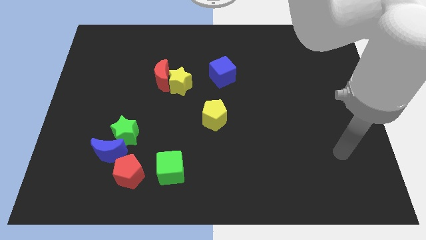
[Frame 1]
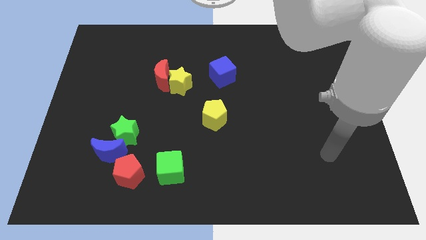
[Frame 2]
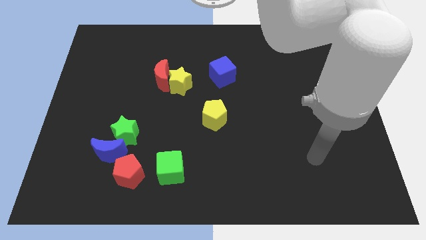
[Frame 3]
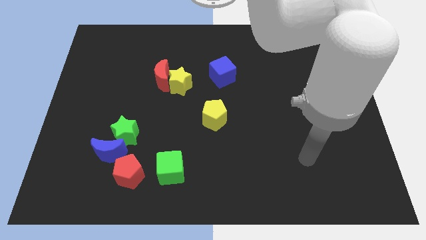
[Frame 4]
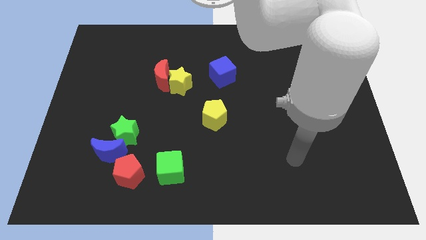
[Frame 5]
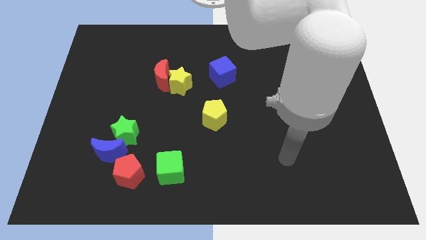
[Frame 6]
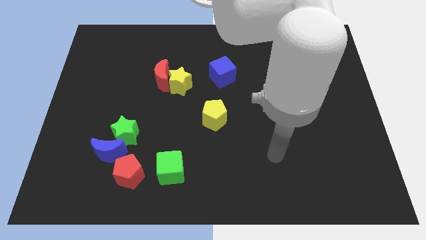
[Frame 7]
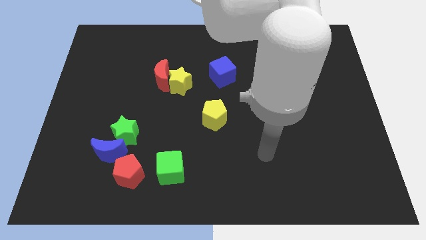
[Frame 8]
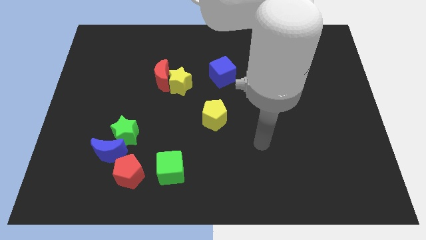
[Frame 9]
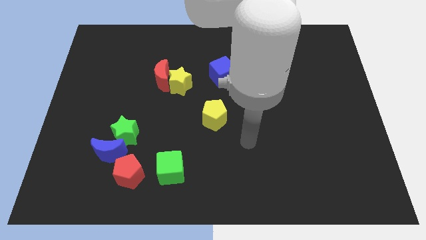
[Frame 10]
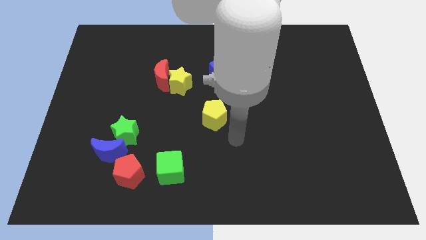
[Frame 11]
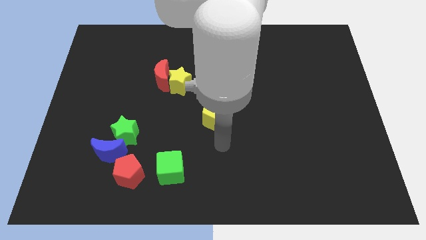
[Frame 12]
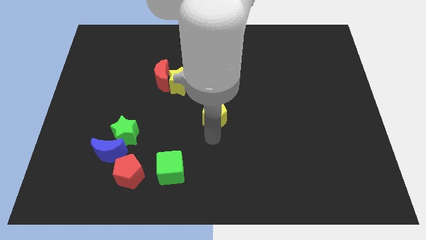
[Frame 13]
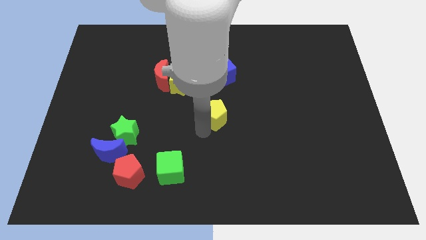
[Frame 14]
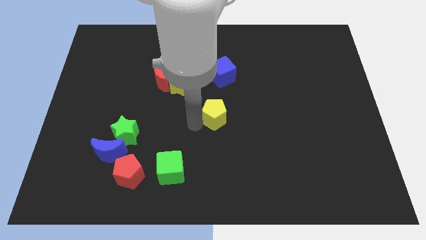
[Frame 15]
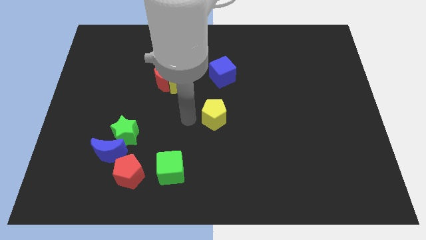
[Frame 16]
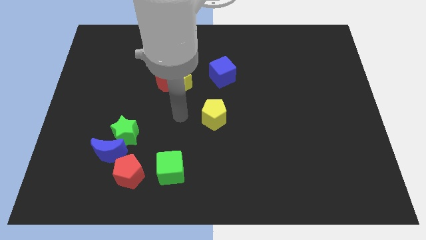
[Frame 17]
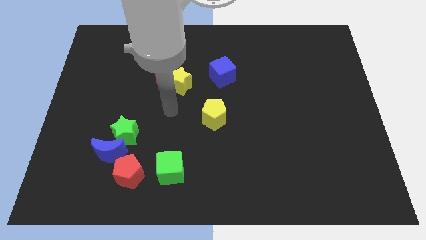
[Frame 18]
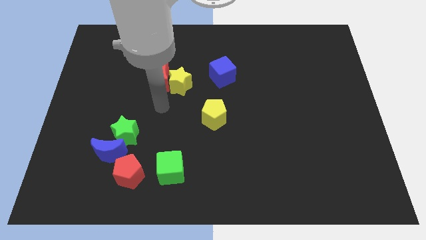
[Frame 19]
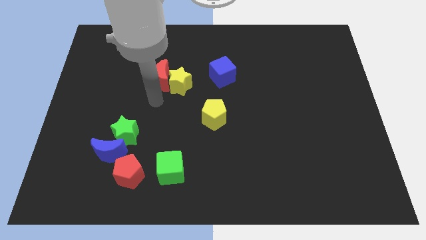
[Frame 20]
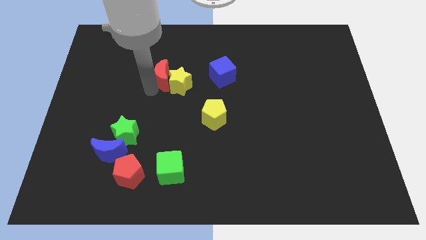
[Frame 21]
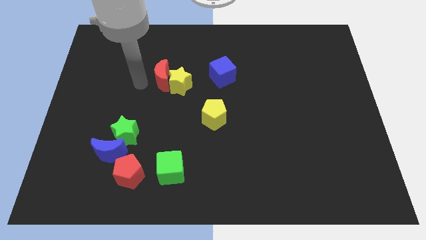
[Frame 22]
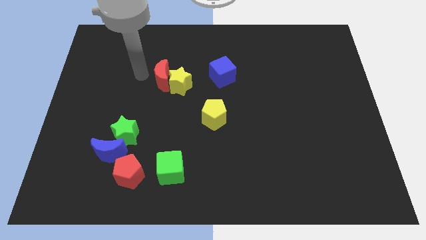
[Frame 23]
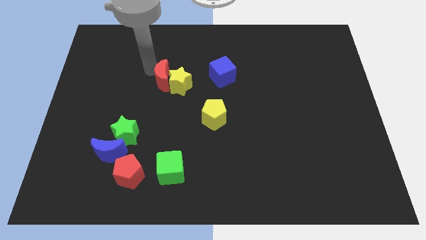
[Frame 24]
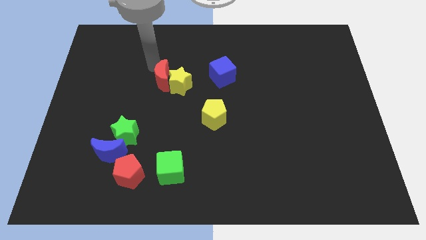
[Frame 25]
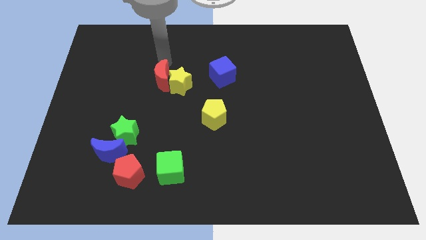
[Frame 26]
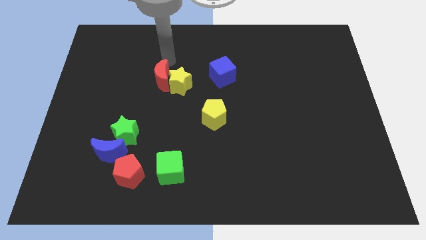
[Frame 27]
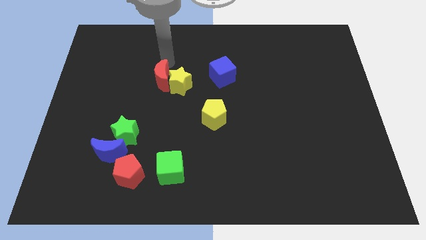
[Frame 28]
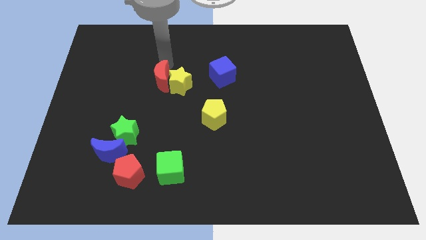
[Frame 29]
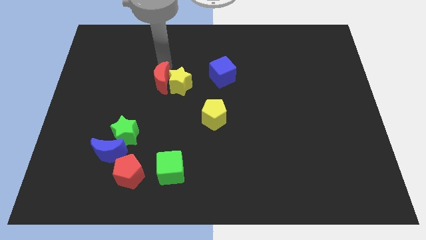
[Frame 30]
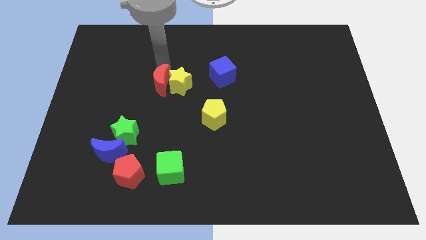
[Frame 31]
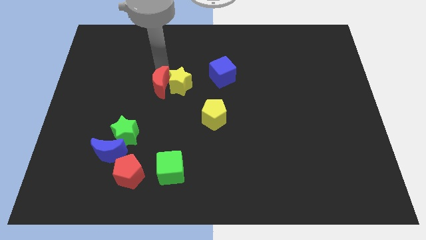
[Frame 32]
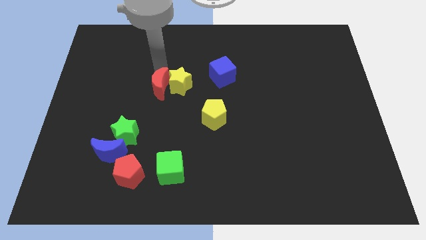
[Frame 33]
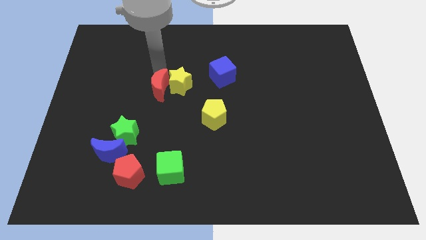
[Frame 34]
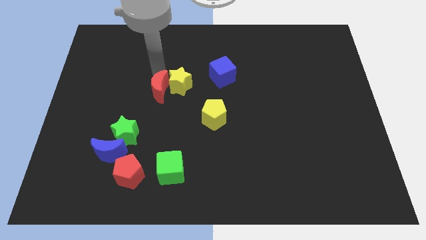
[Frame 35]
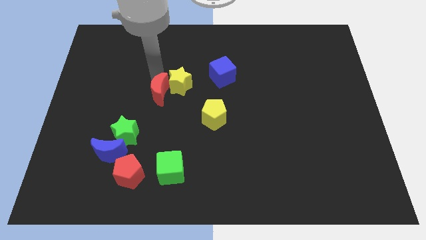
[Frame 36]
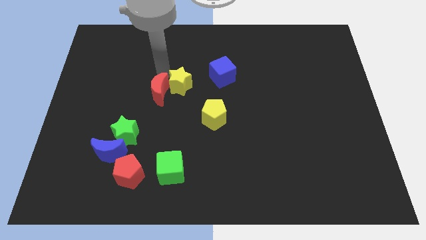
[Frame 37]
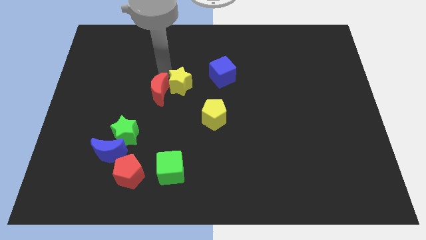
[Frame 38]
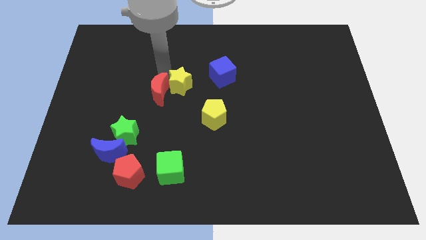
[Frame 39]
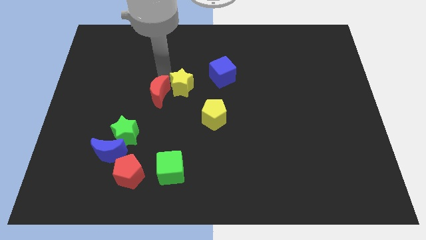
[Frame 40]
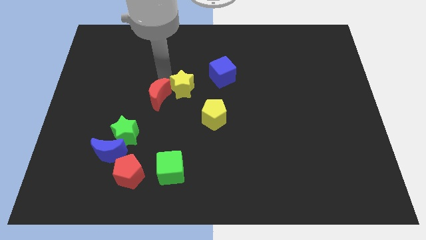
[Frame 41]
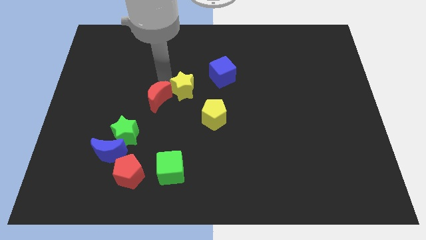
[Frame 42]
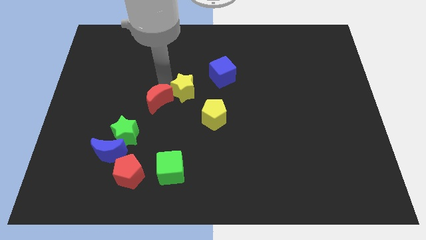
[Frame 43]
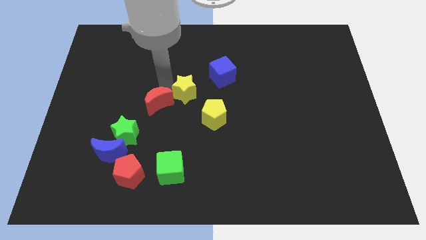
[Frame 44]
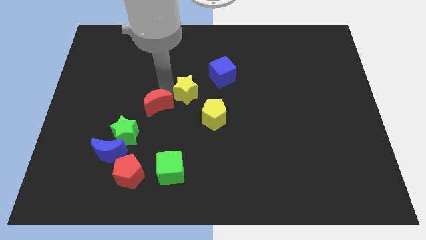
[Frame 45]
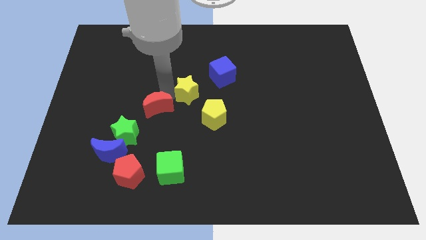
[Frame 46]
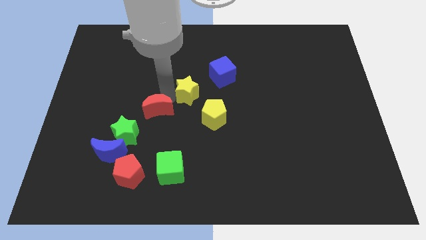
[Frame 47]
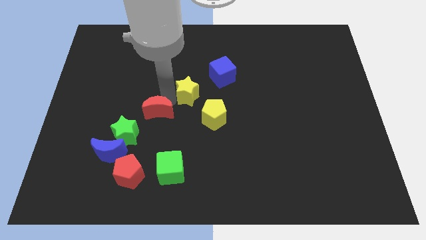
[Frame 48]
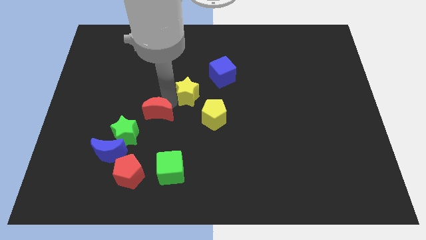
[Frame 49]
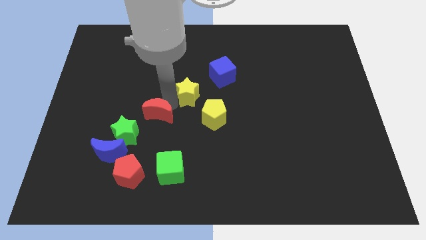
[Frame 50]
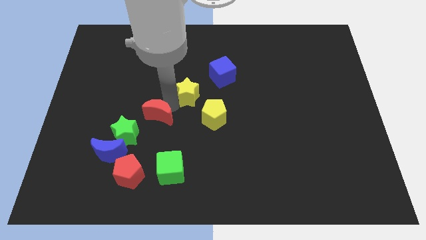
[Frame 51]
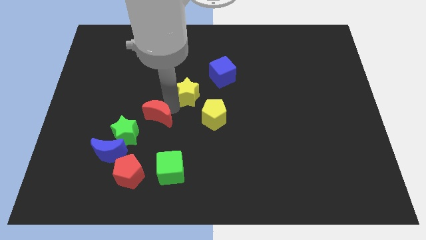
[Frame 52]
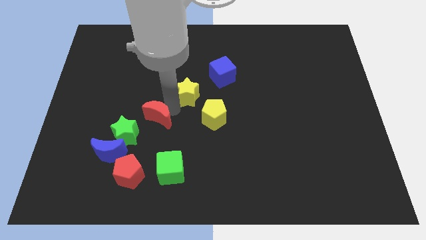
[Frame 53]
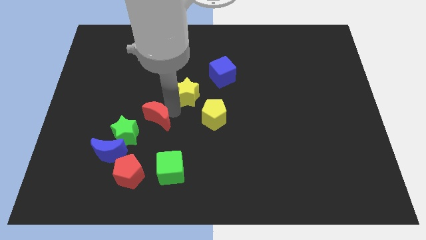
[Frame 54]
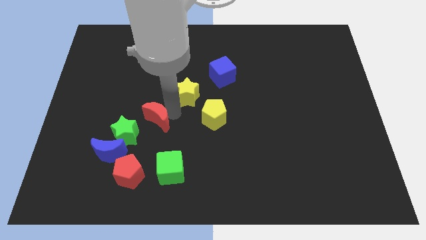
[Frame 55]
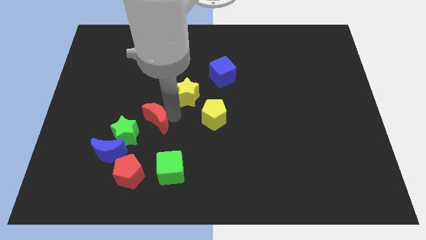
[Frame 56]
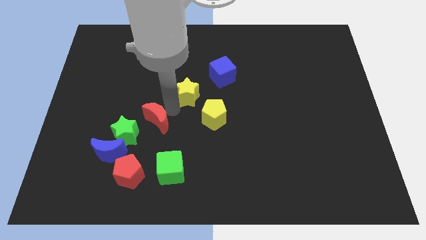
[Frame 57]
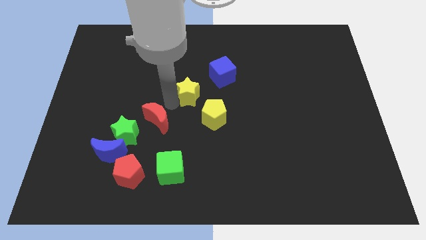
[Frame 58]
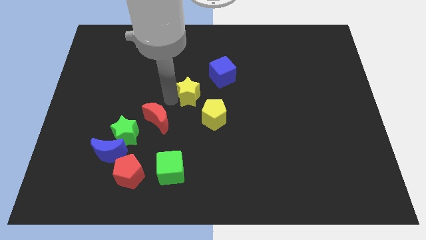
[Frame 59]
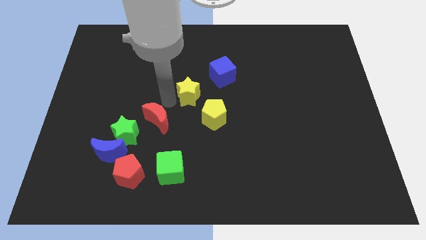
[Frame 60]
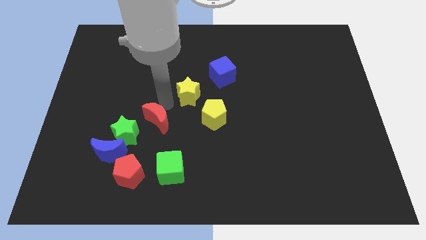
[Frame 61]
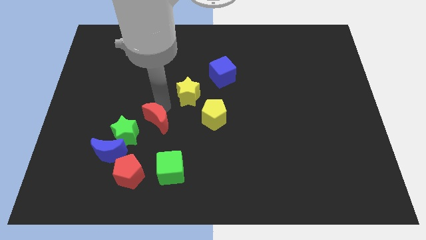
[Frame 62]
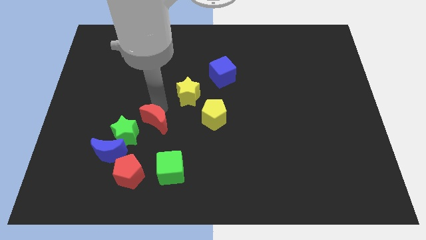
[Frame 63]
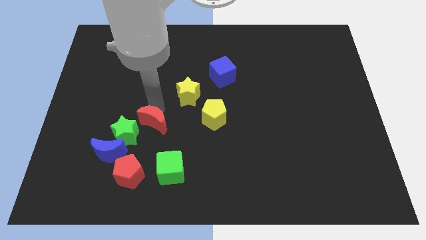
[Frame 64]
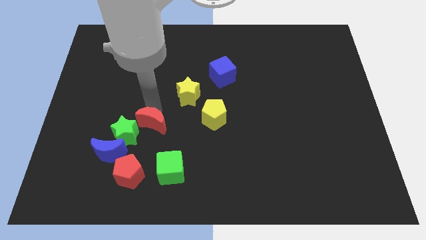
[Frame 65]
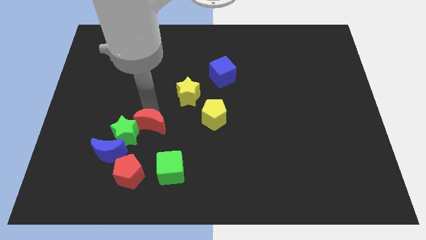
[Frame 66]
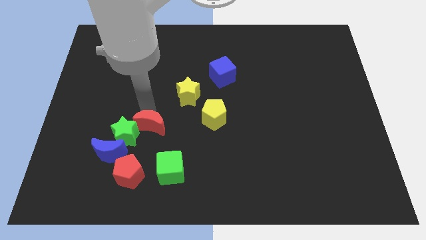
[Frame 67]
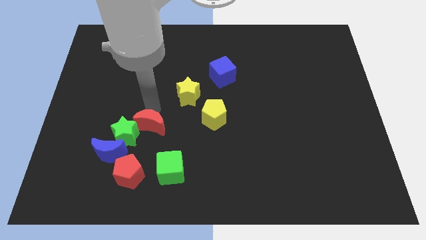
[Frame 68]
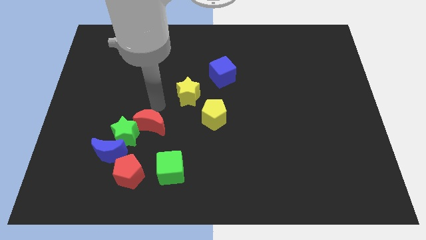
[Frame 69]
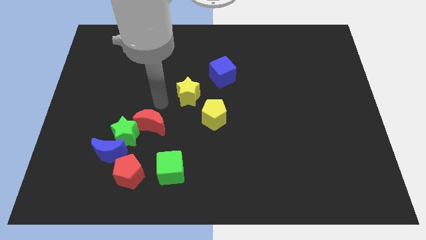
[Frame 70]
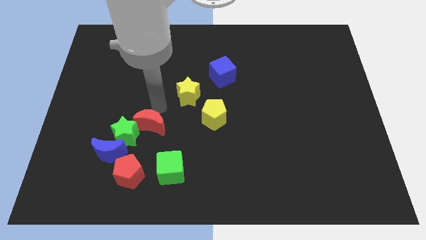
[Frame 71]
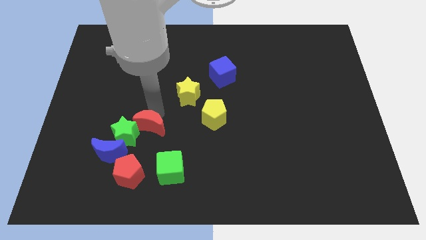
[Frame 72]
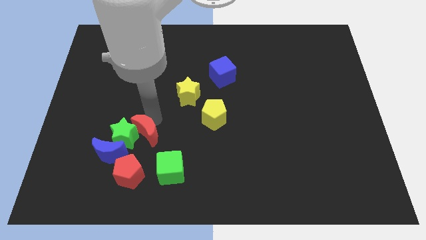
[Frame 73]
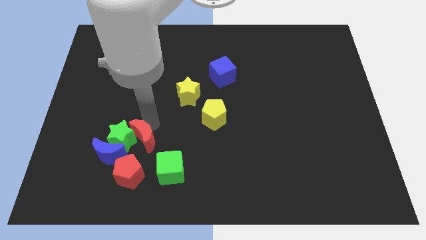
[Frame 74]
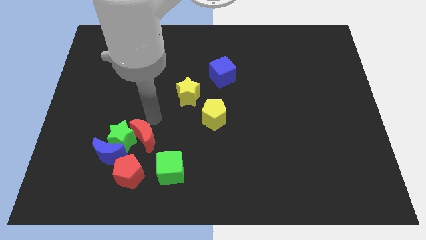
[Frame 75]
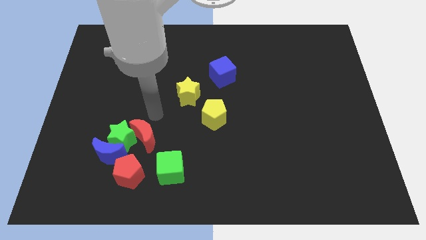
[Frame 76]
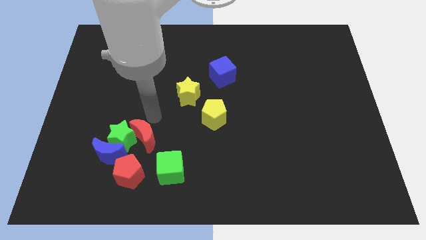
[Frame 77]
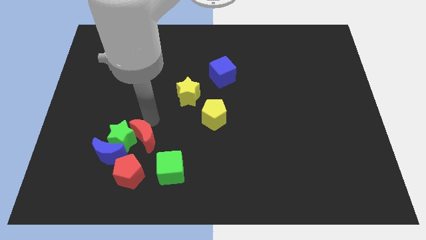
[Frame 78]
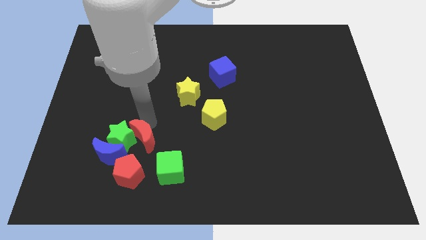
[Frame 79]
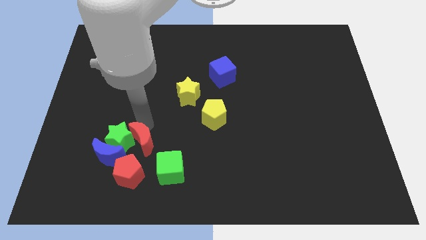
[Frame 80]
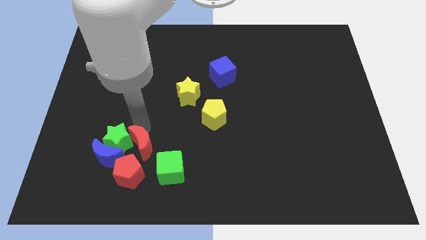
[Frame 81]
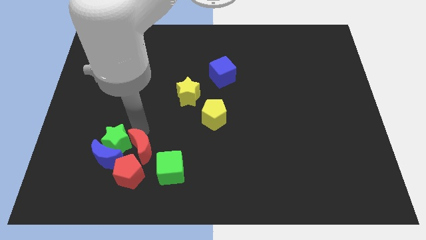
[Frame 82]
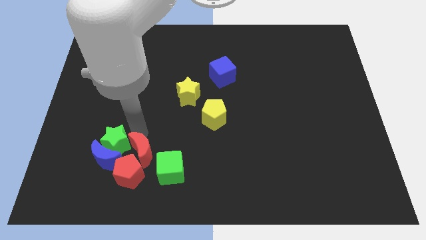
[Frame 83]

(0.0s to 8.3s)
slide the red moon towards the red pentagon
